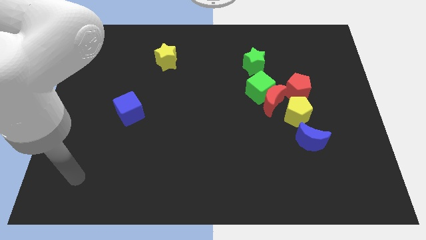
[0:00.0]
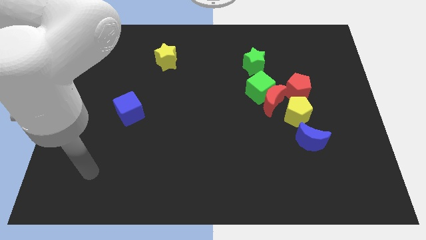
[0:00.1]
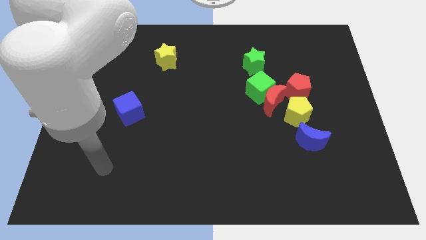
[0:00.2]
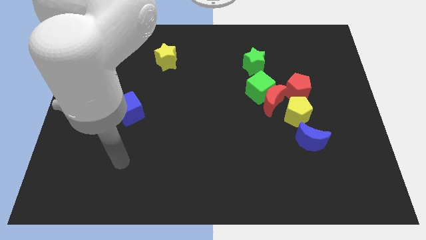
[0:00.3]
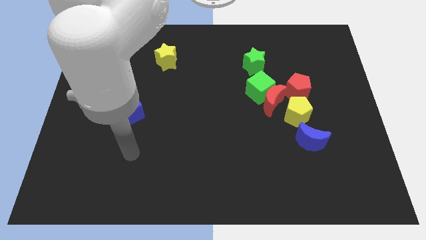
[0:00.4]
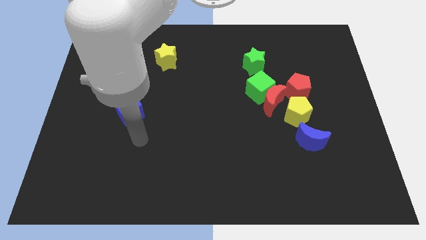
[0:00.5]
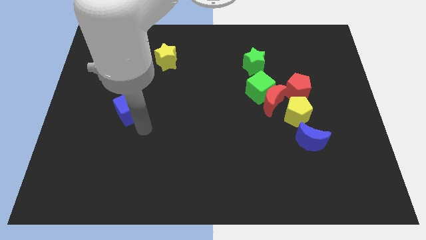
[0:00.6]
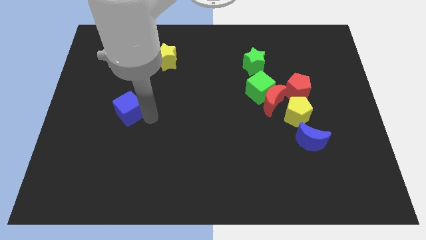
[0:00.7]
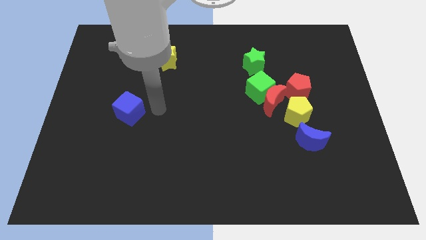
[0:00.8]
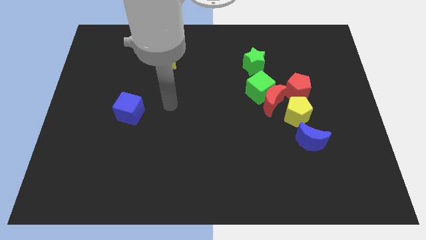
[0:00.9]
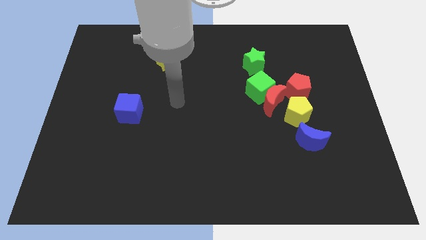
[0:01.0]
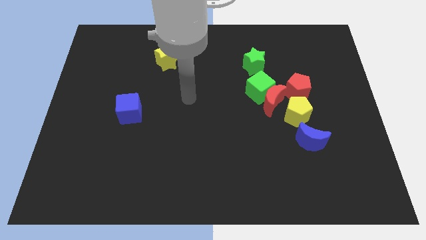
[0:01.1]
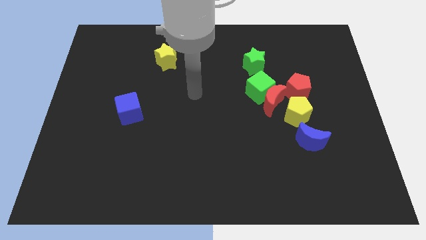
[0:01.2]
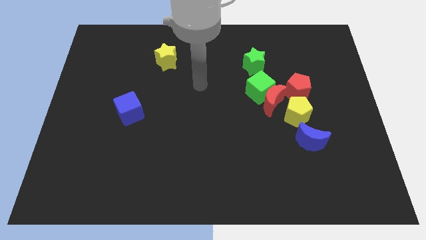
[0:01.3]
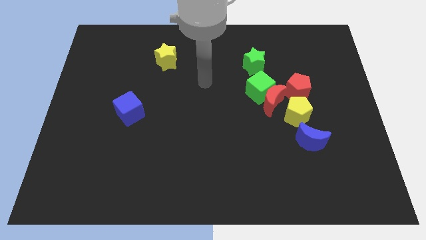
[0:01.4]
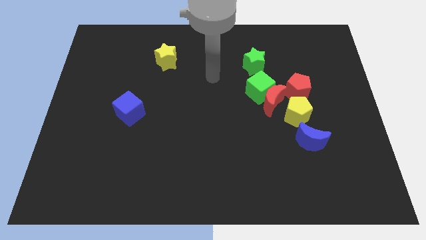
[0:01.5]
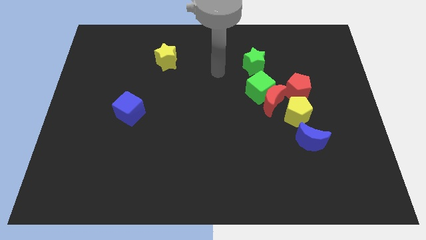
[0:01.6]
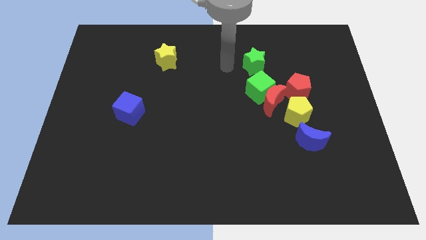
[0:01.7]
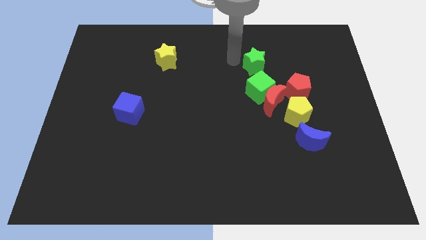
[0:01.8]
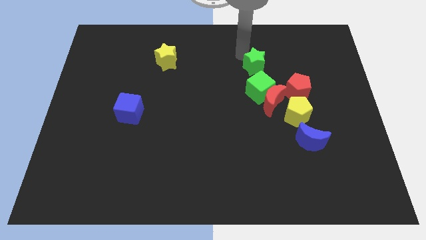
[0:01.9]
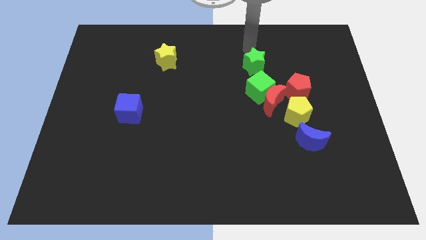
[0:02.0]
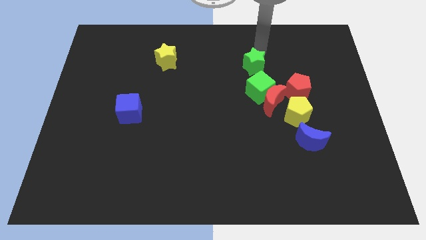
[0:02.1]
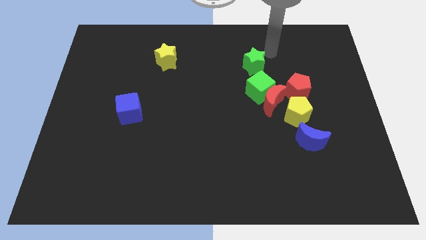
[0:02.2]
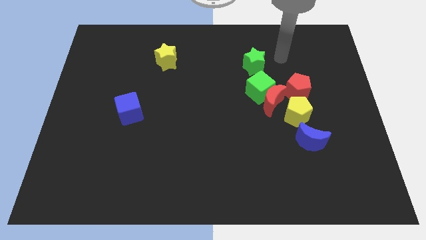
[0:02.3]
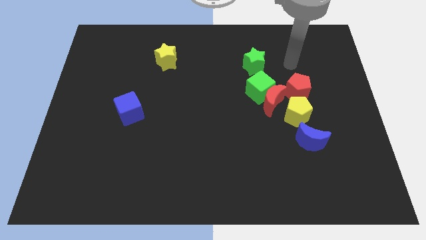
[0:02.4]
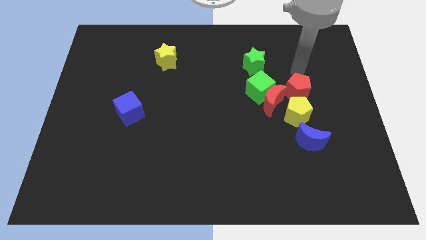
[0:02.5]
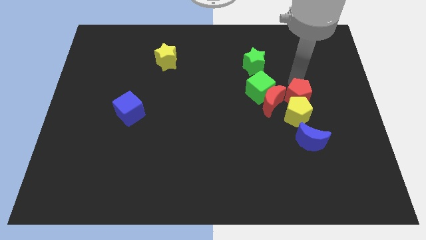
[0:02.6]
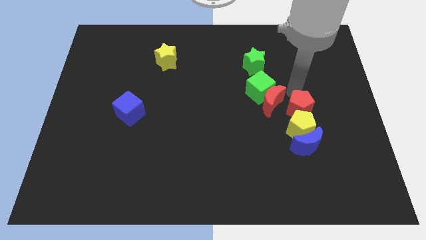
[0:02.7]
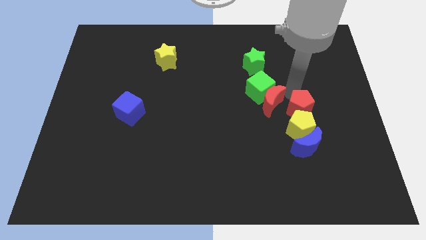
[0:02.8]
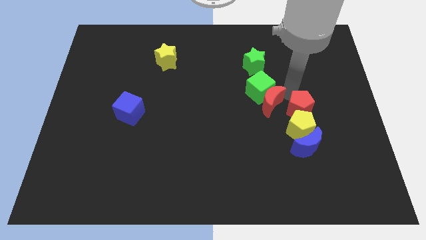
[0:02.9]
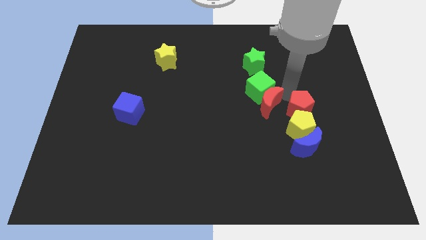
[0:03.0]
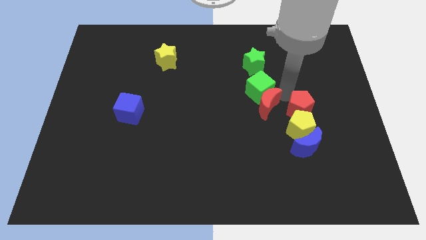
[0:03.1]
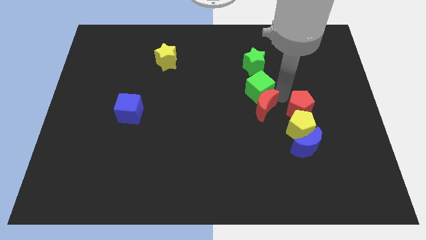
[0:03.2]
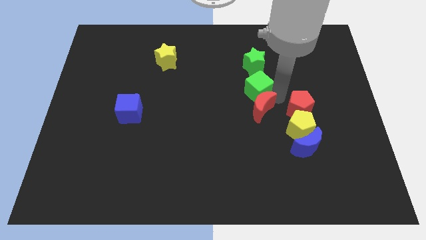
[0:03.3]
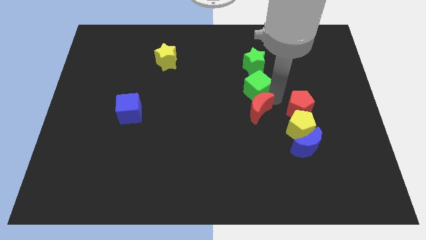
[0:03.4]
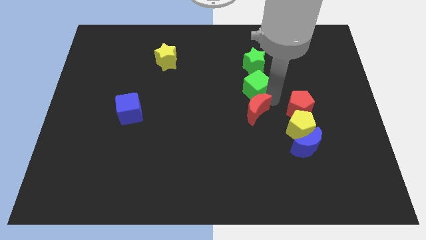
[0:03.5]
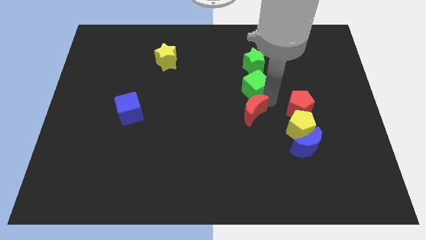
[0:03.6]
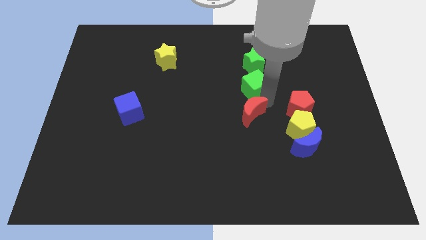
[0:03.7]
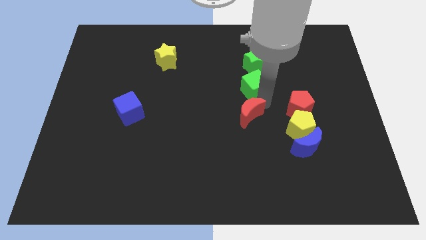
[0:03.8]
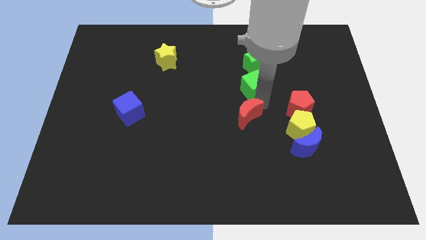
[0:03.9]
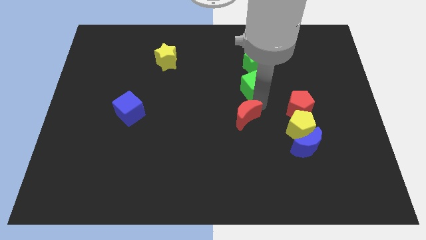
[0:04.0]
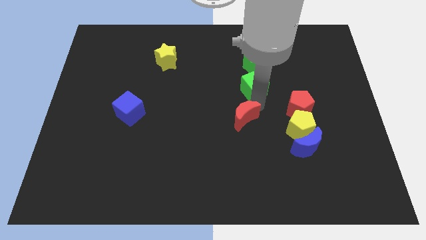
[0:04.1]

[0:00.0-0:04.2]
separate the red moon from the green cube, yellow pentagon, and red pentagon

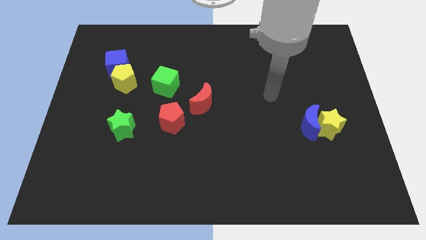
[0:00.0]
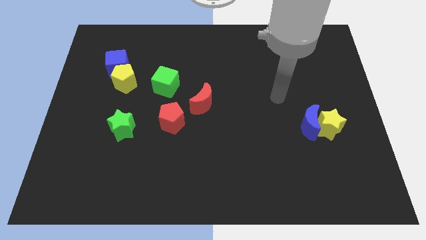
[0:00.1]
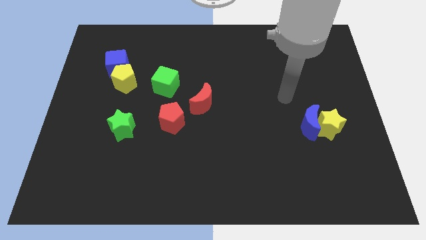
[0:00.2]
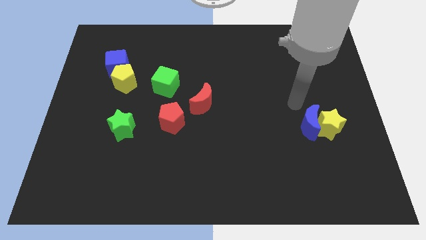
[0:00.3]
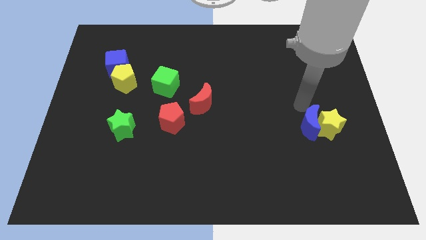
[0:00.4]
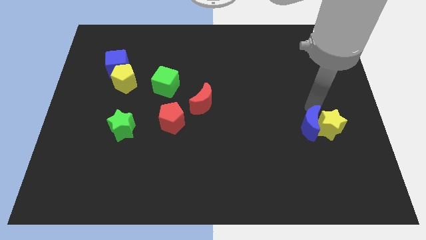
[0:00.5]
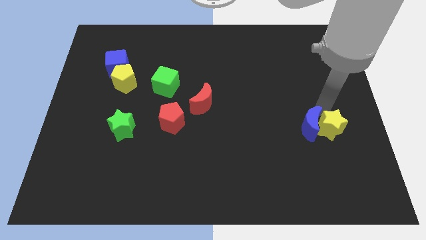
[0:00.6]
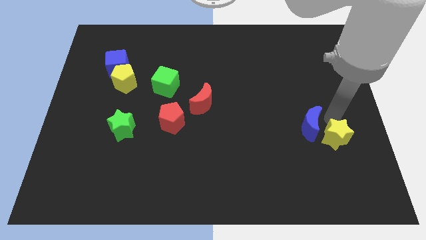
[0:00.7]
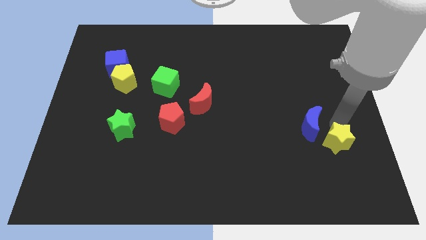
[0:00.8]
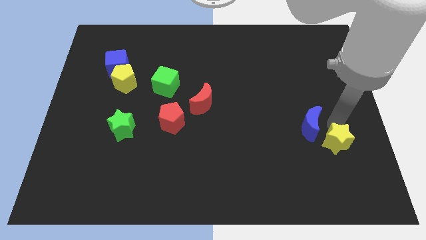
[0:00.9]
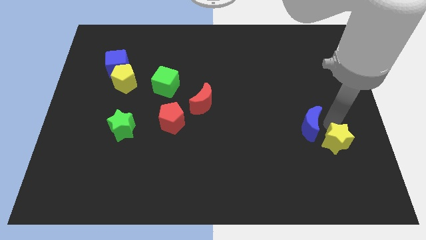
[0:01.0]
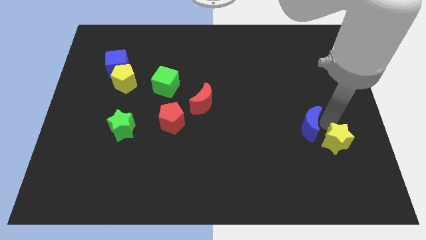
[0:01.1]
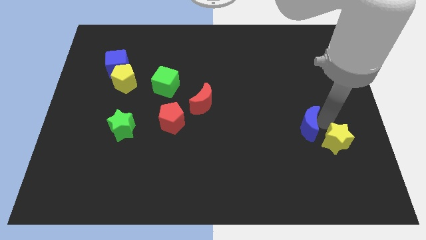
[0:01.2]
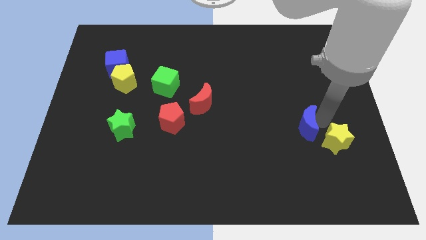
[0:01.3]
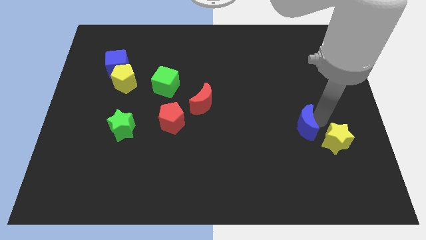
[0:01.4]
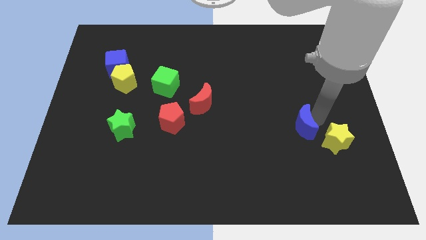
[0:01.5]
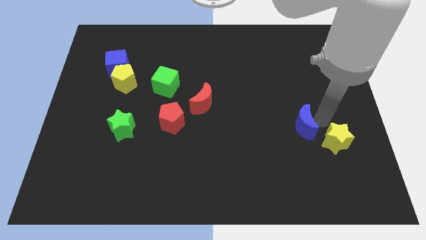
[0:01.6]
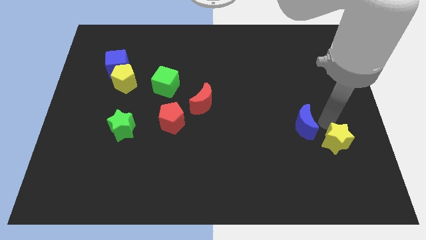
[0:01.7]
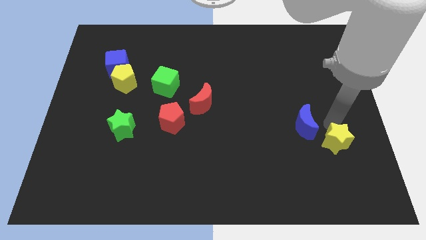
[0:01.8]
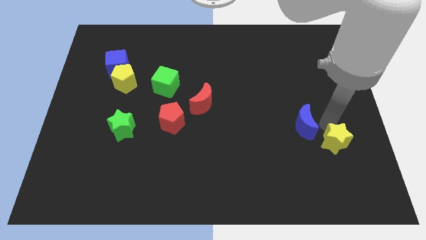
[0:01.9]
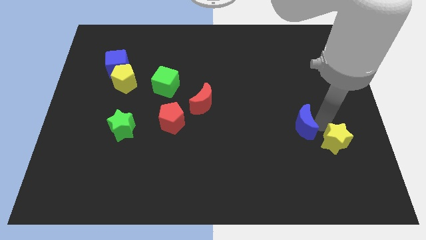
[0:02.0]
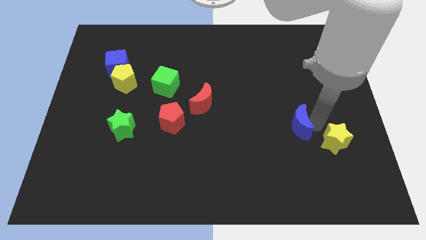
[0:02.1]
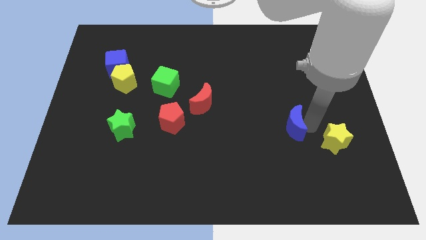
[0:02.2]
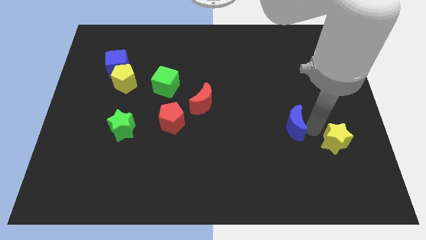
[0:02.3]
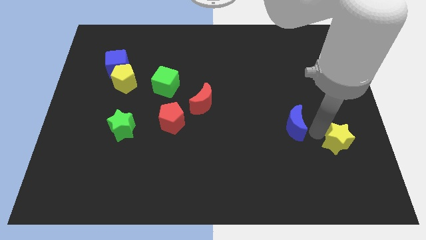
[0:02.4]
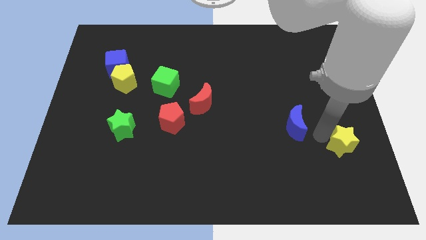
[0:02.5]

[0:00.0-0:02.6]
pull the blue moon apart from the yellow star

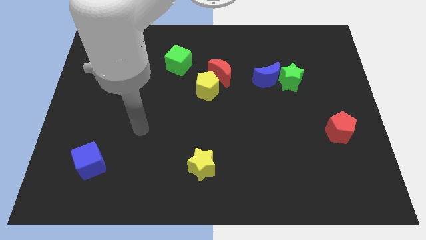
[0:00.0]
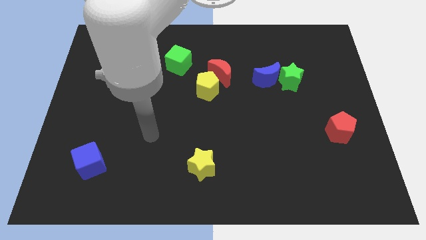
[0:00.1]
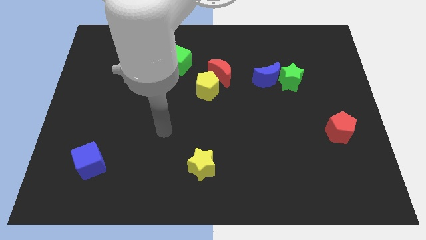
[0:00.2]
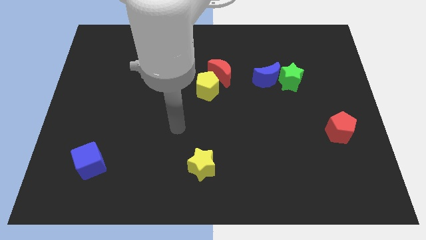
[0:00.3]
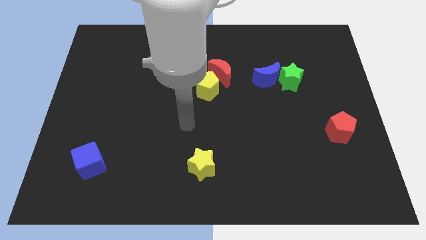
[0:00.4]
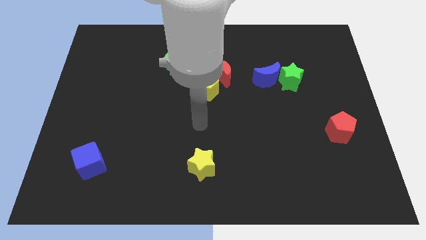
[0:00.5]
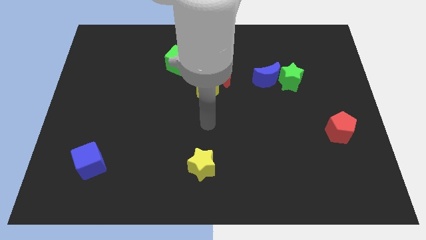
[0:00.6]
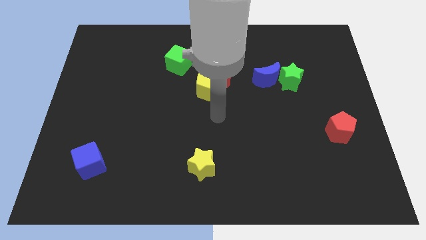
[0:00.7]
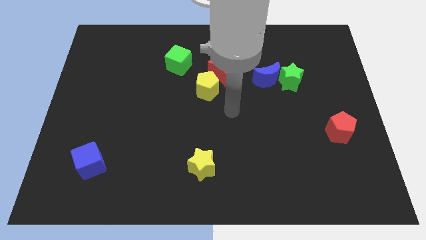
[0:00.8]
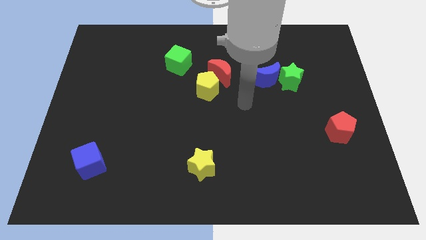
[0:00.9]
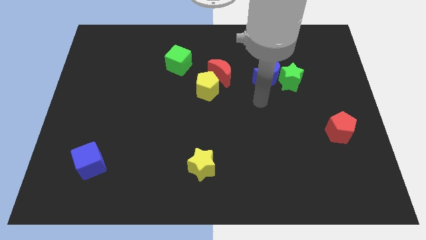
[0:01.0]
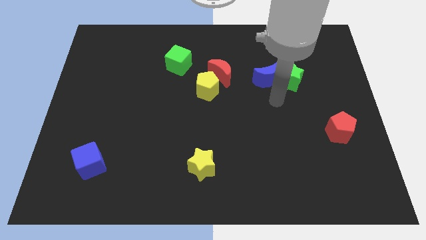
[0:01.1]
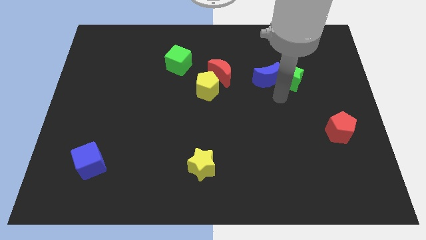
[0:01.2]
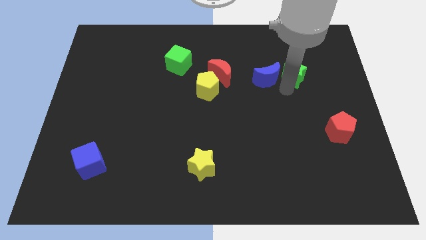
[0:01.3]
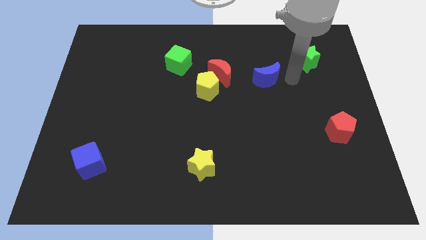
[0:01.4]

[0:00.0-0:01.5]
move the blue moon away from the green star

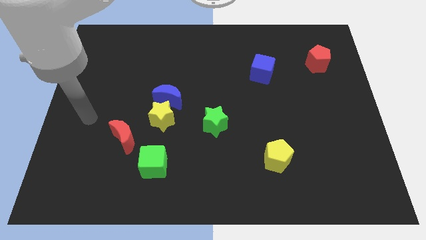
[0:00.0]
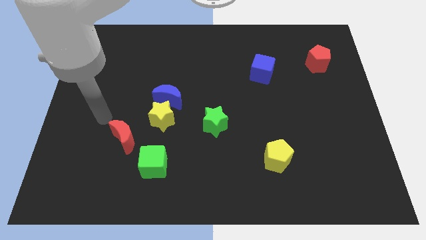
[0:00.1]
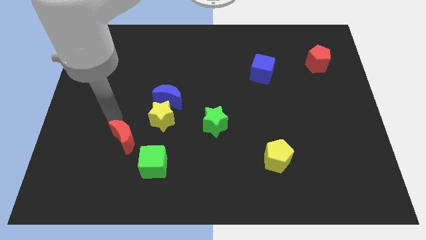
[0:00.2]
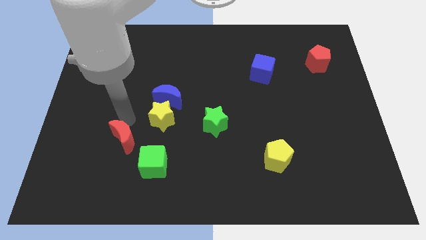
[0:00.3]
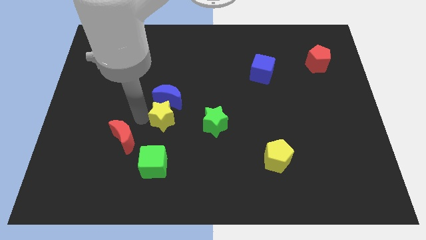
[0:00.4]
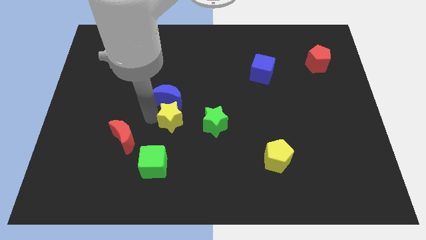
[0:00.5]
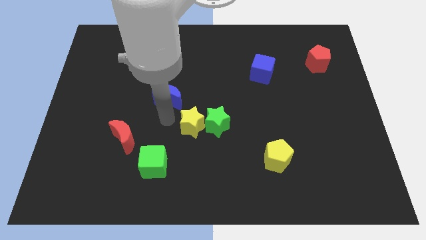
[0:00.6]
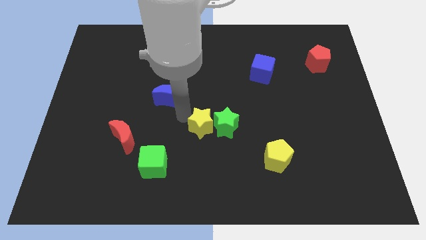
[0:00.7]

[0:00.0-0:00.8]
separate the blue moon from the yellow star

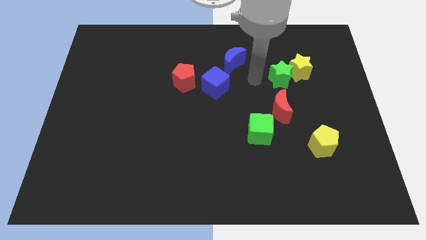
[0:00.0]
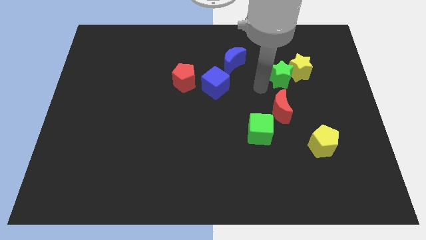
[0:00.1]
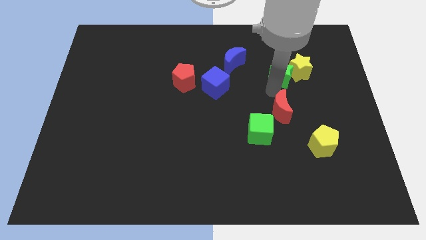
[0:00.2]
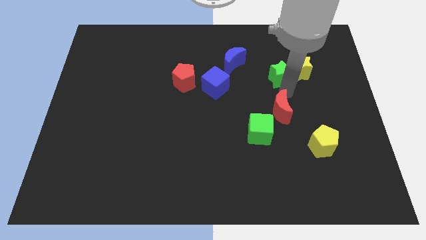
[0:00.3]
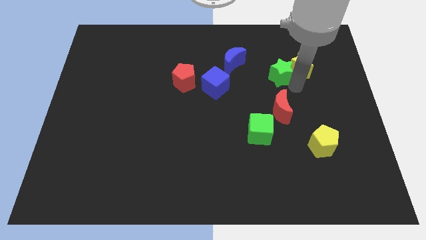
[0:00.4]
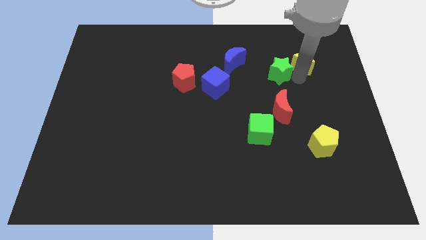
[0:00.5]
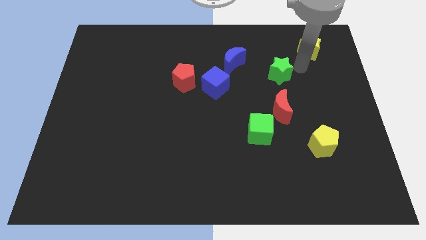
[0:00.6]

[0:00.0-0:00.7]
pull the green star apart from the yellow star
